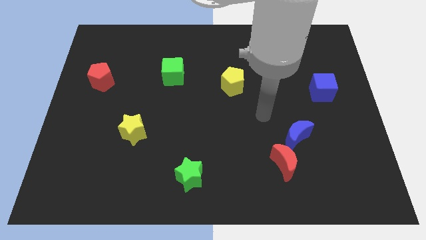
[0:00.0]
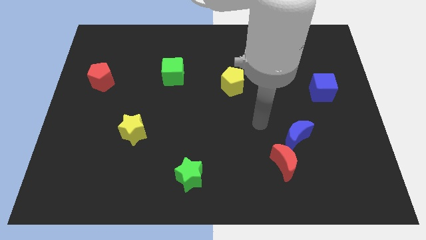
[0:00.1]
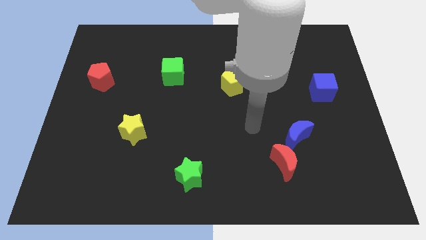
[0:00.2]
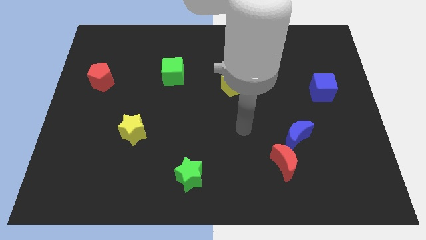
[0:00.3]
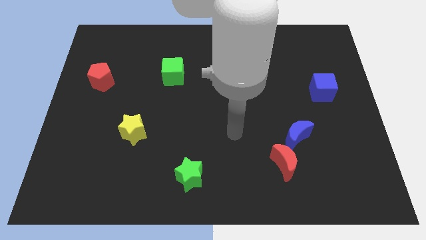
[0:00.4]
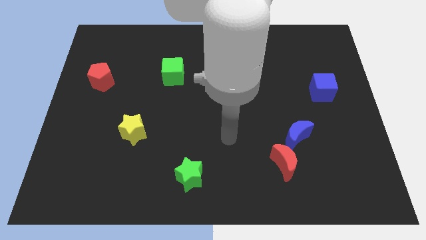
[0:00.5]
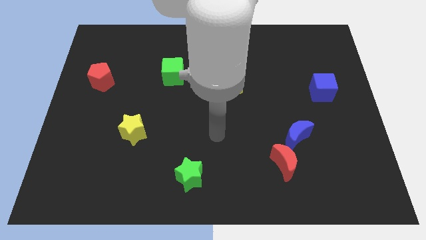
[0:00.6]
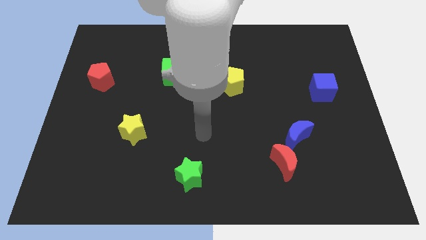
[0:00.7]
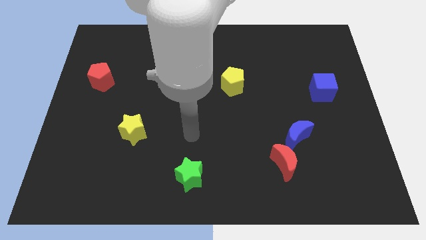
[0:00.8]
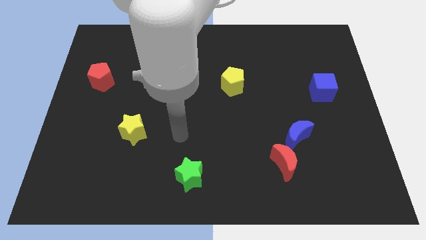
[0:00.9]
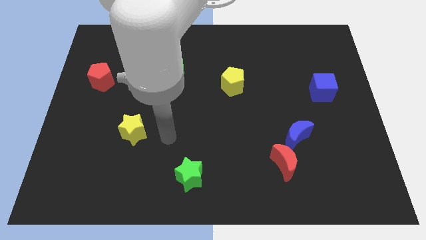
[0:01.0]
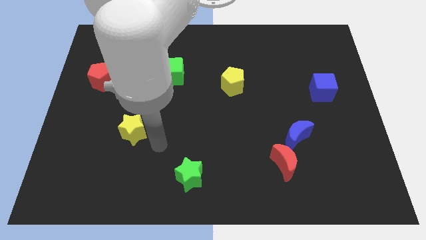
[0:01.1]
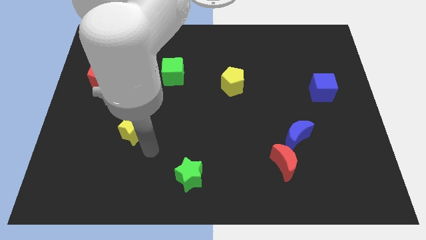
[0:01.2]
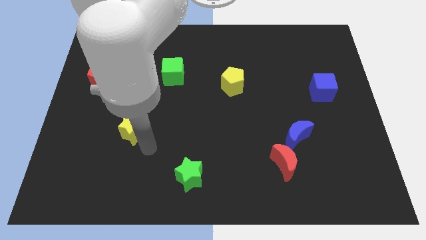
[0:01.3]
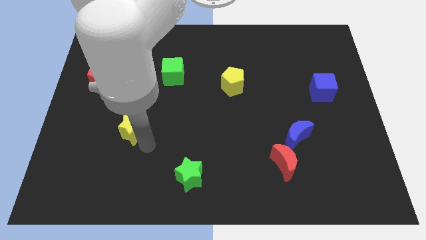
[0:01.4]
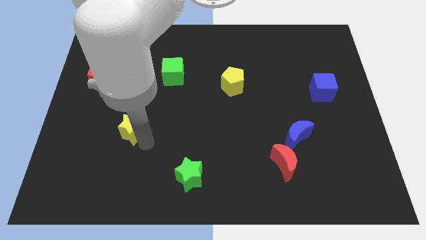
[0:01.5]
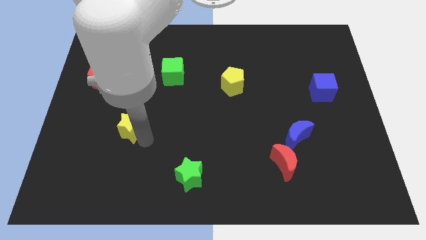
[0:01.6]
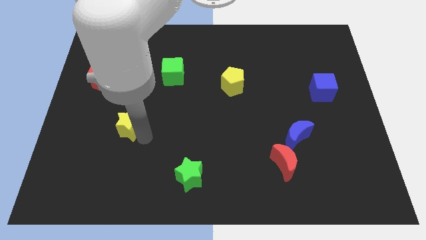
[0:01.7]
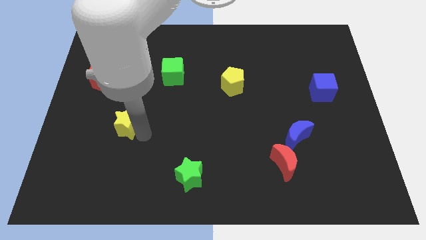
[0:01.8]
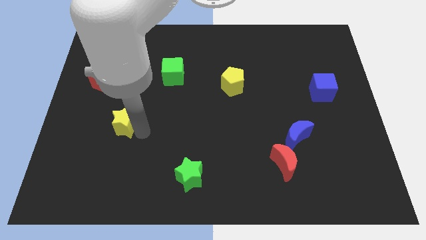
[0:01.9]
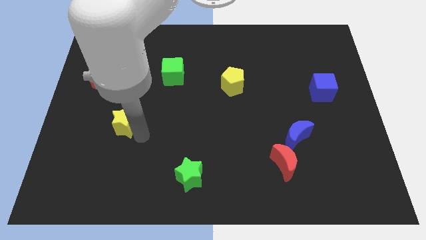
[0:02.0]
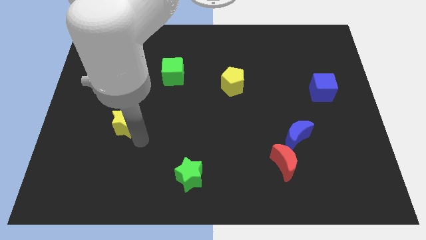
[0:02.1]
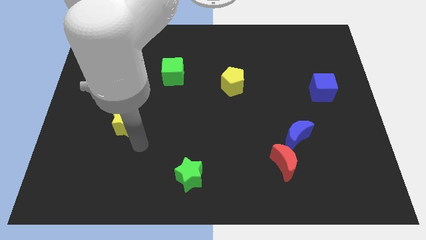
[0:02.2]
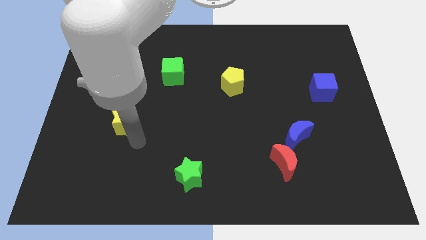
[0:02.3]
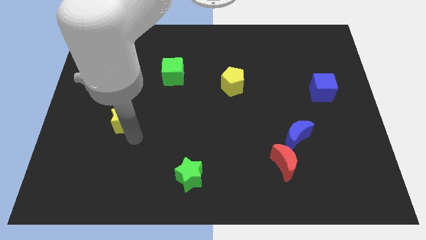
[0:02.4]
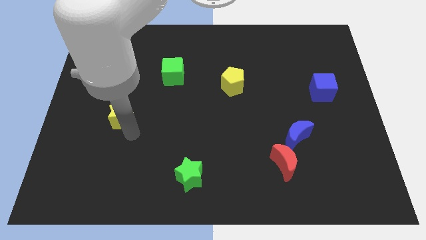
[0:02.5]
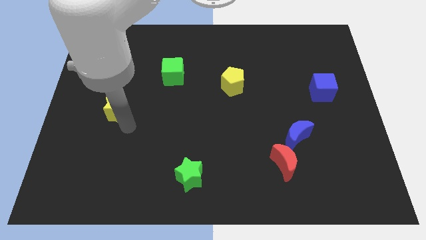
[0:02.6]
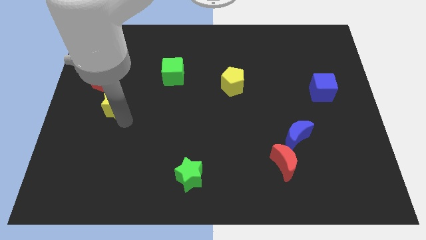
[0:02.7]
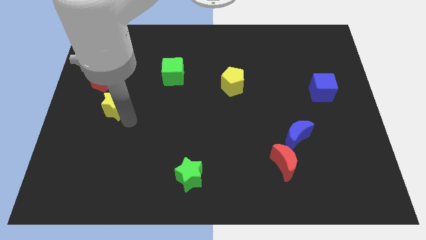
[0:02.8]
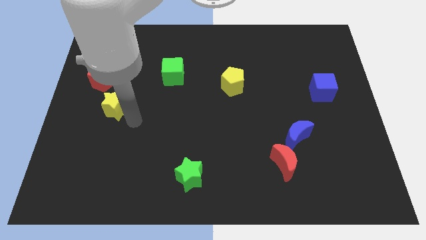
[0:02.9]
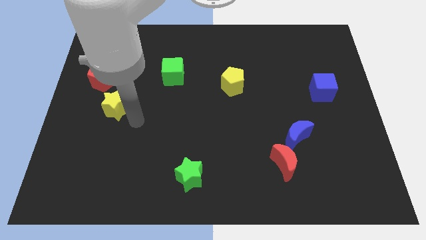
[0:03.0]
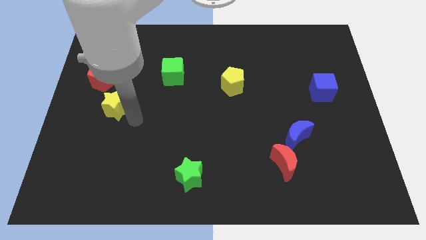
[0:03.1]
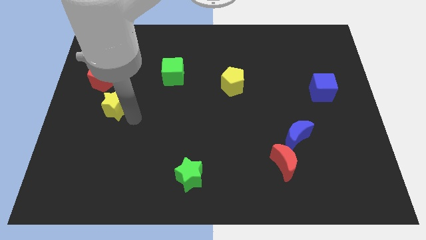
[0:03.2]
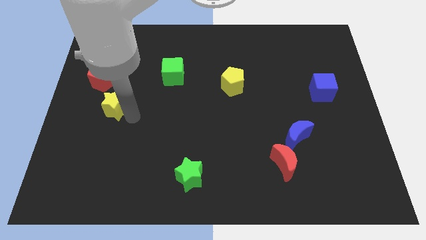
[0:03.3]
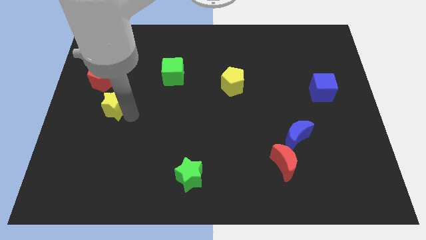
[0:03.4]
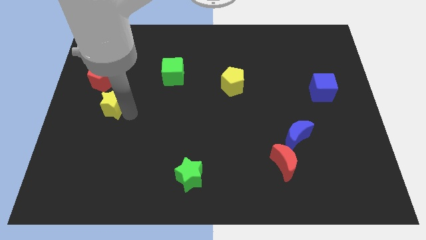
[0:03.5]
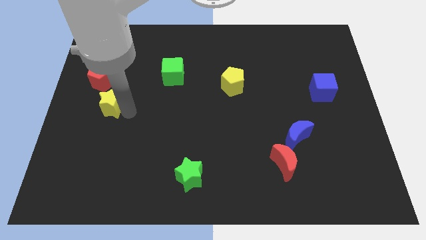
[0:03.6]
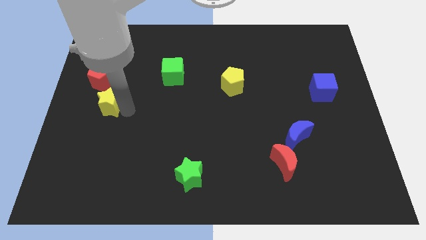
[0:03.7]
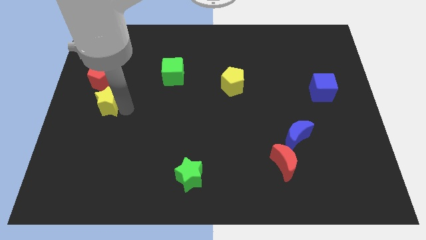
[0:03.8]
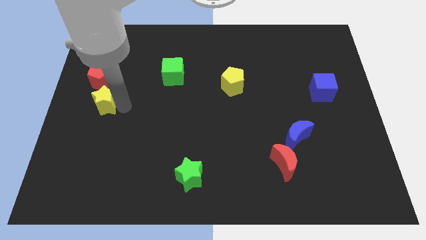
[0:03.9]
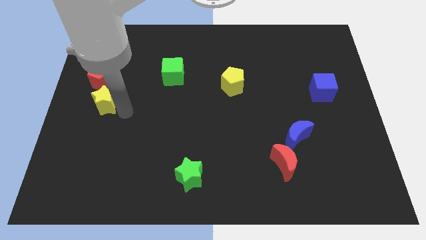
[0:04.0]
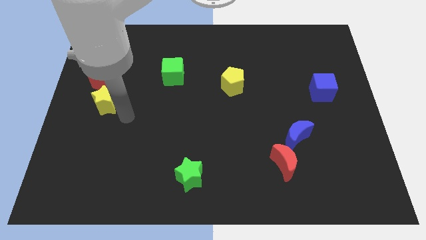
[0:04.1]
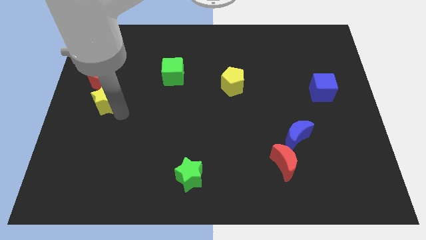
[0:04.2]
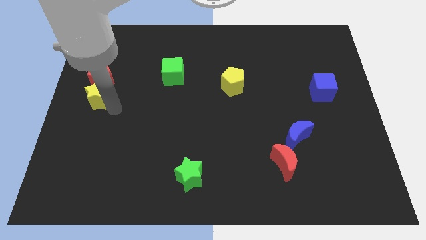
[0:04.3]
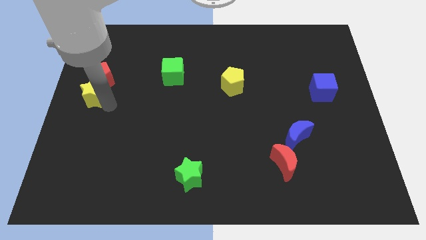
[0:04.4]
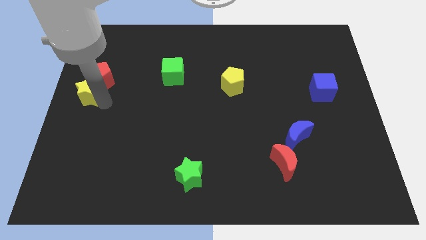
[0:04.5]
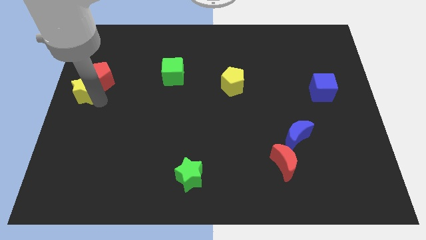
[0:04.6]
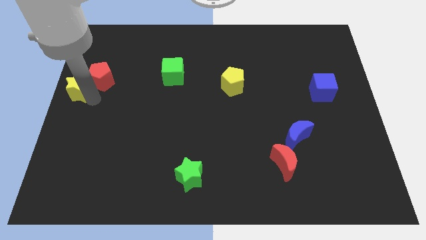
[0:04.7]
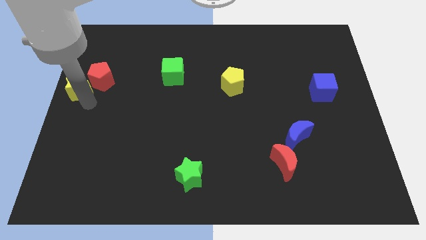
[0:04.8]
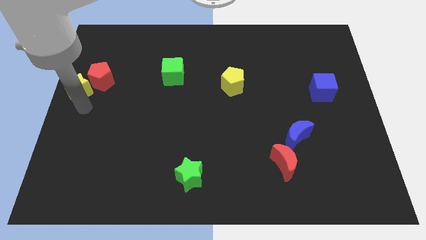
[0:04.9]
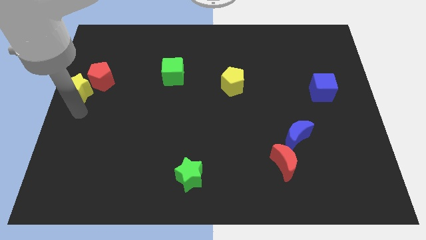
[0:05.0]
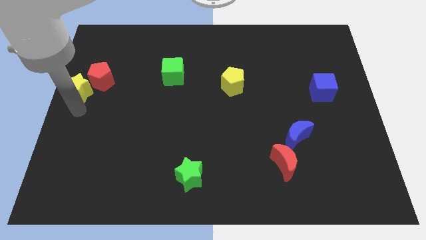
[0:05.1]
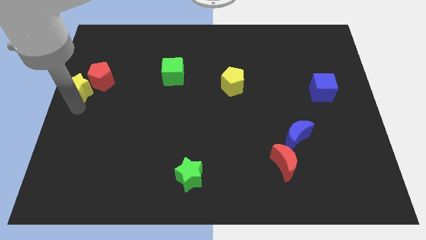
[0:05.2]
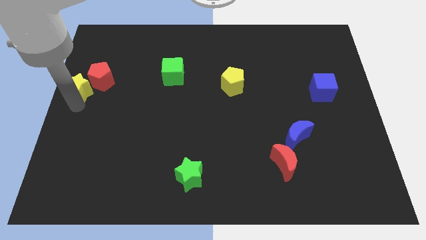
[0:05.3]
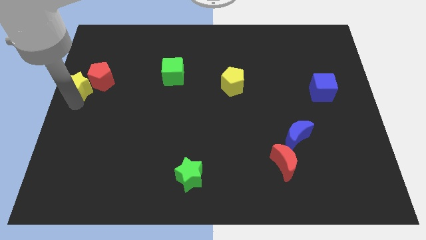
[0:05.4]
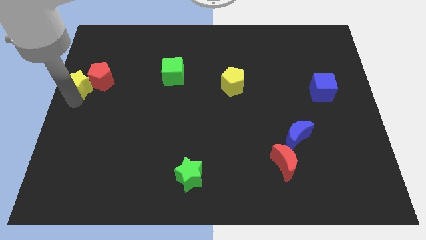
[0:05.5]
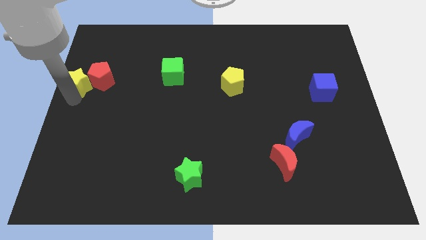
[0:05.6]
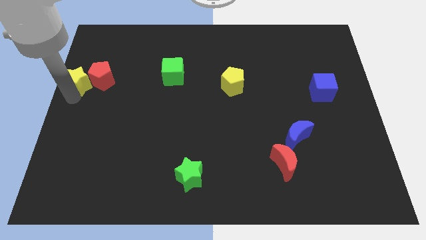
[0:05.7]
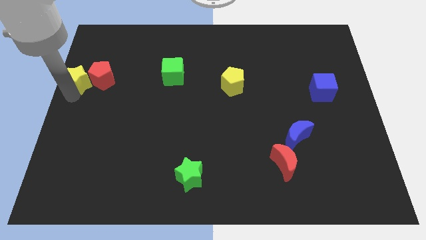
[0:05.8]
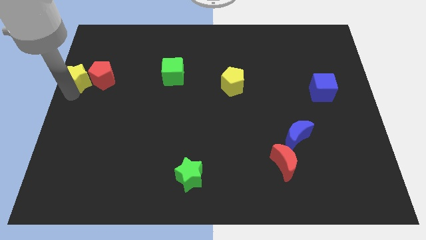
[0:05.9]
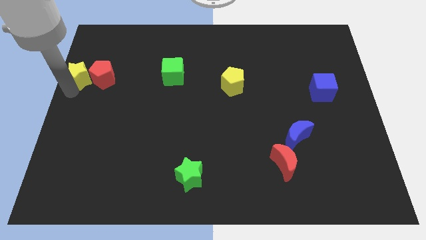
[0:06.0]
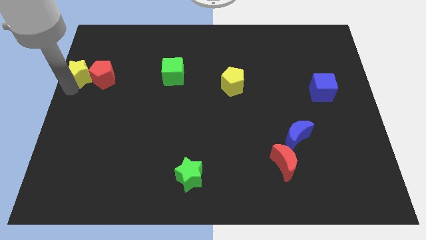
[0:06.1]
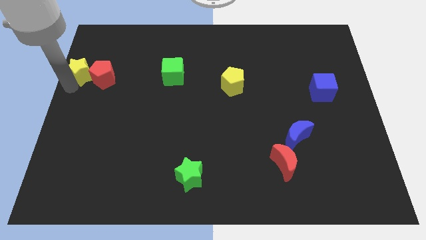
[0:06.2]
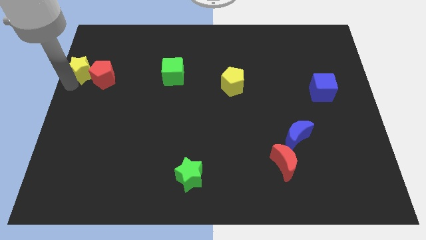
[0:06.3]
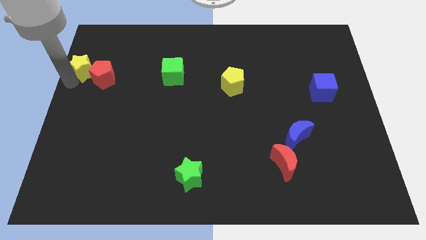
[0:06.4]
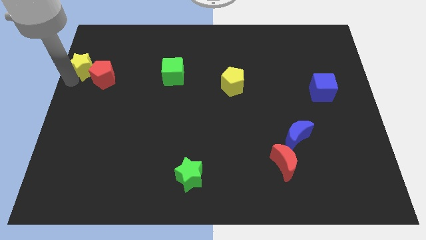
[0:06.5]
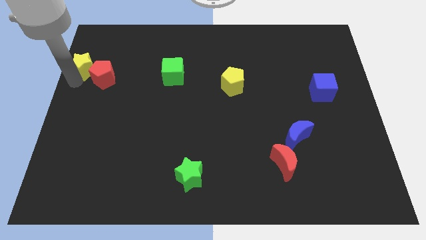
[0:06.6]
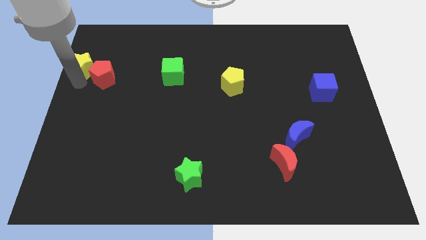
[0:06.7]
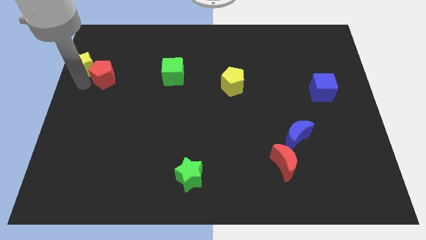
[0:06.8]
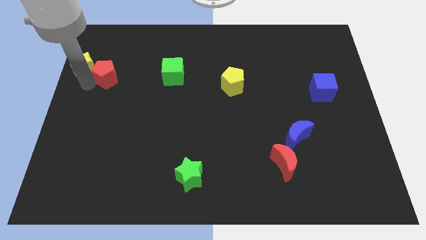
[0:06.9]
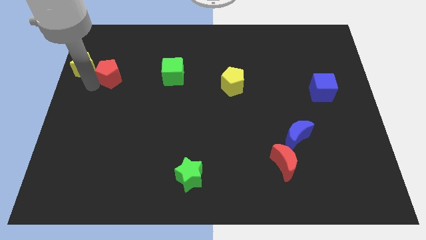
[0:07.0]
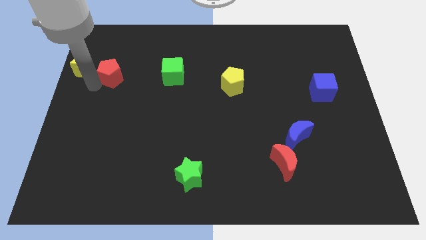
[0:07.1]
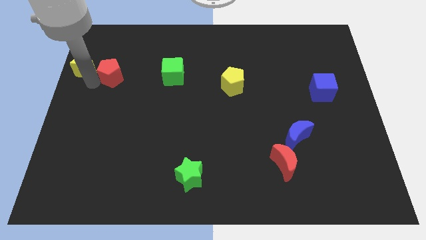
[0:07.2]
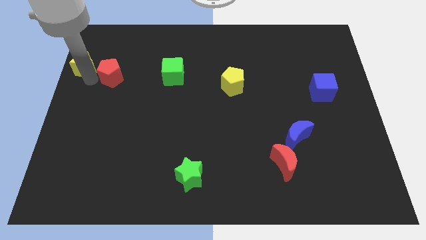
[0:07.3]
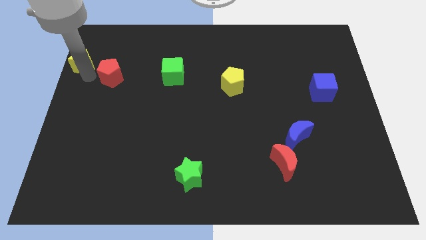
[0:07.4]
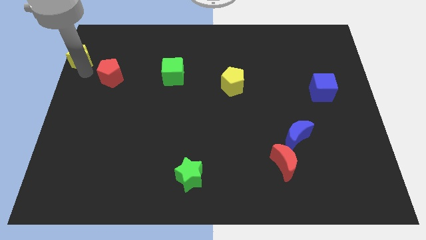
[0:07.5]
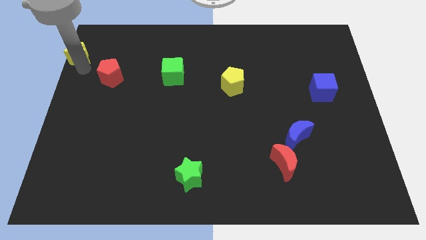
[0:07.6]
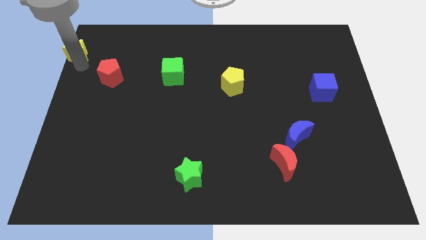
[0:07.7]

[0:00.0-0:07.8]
move the yellow star to the top left of the board
